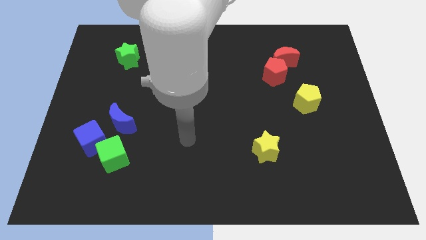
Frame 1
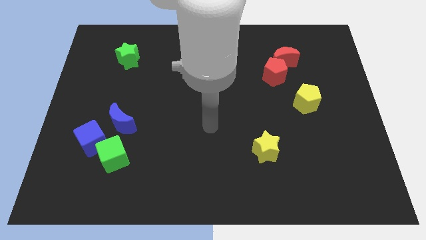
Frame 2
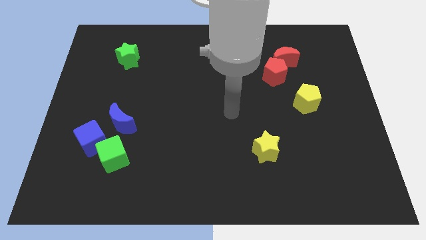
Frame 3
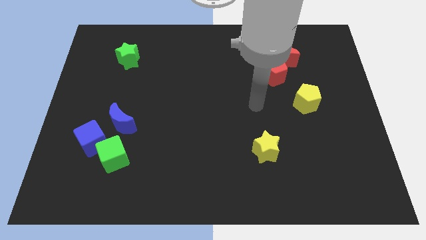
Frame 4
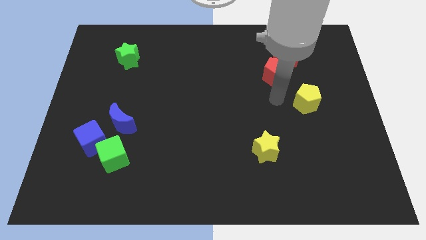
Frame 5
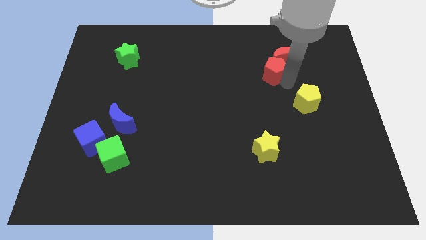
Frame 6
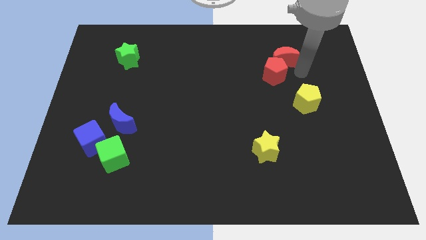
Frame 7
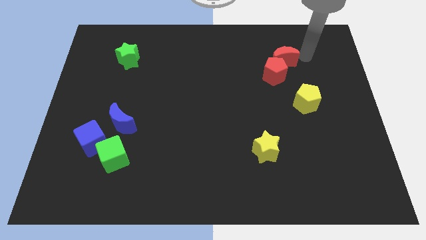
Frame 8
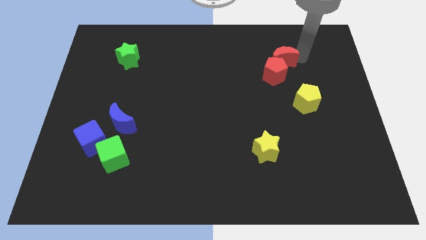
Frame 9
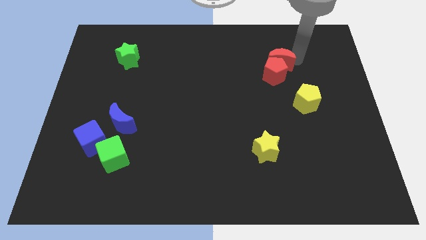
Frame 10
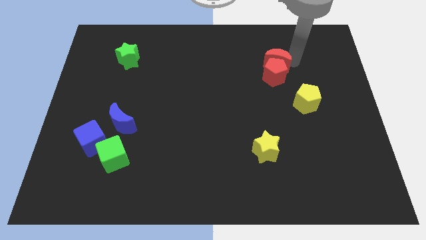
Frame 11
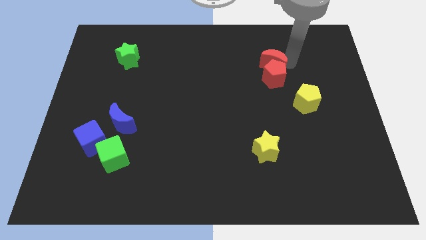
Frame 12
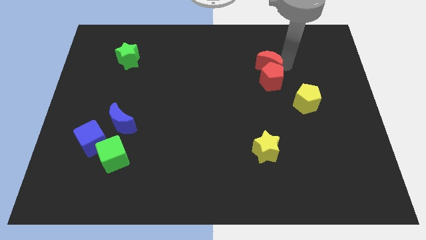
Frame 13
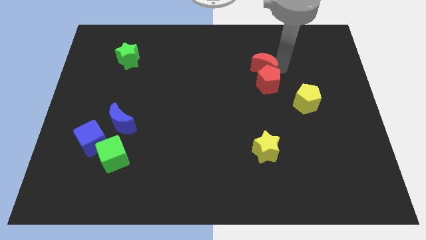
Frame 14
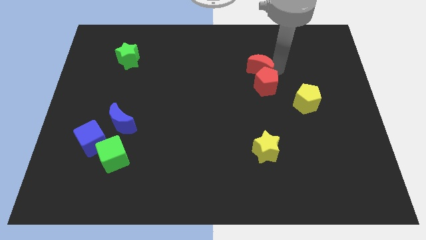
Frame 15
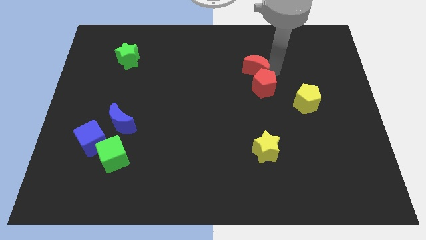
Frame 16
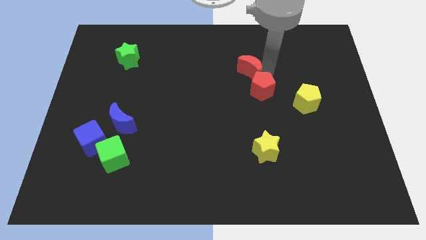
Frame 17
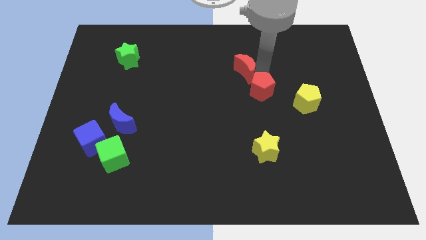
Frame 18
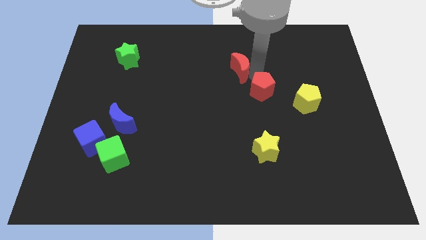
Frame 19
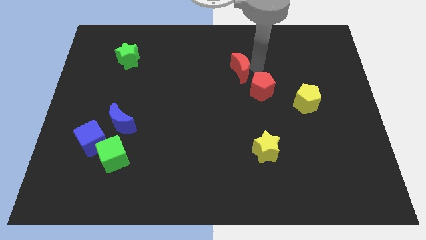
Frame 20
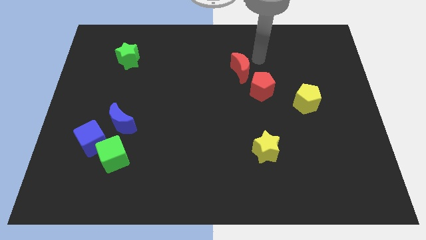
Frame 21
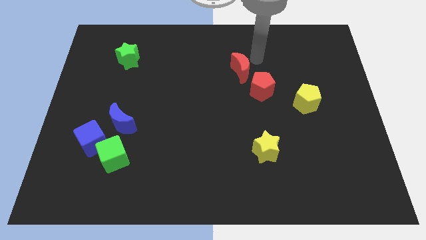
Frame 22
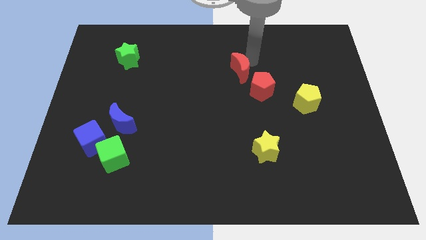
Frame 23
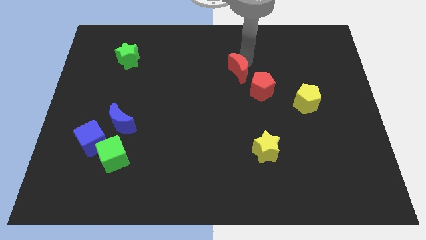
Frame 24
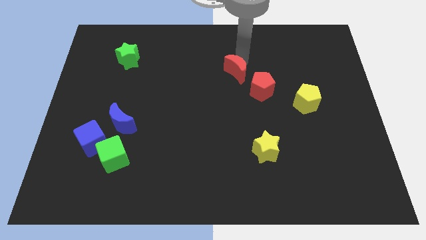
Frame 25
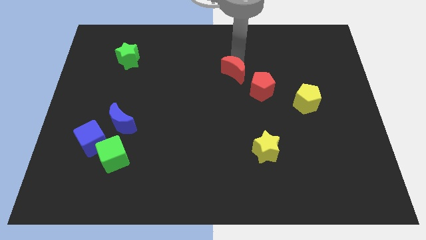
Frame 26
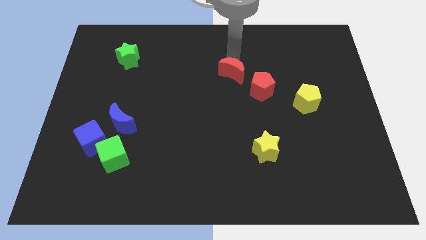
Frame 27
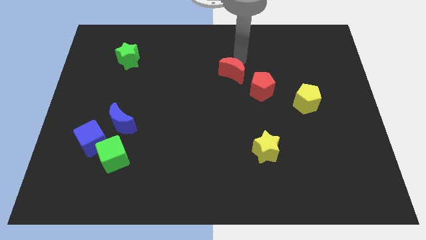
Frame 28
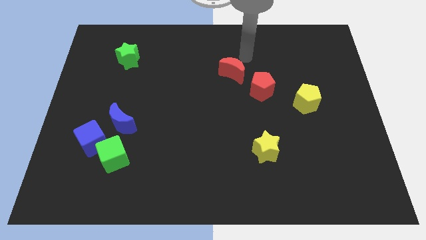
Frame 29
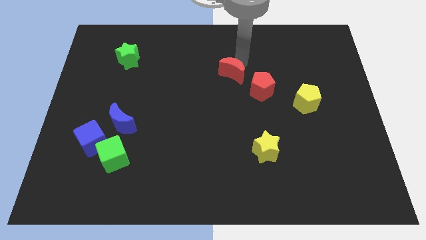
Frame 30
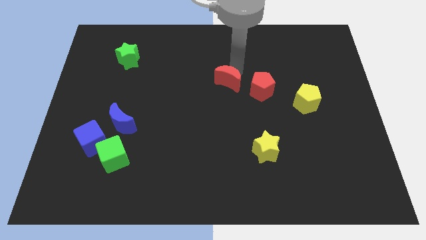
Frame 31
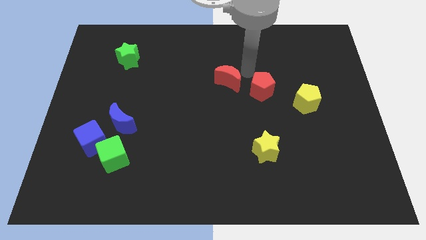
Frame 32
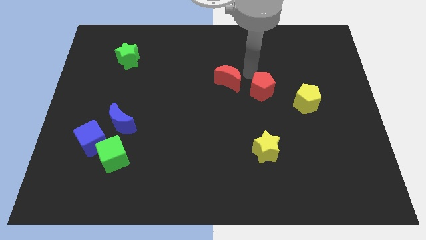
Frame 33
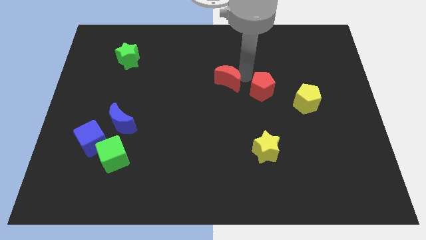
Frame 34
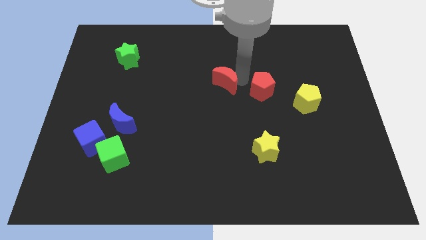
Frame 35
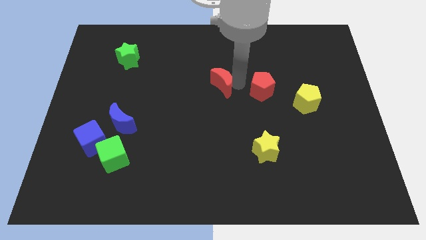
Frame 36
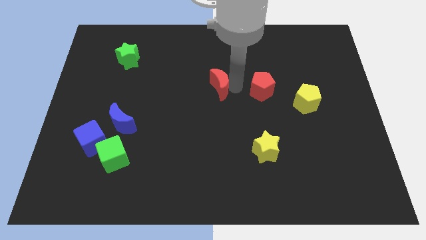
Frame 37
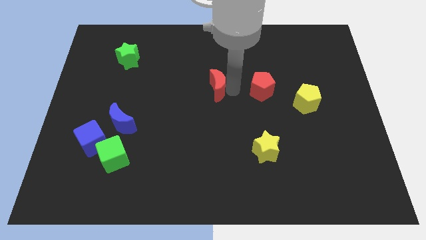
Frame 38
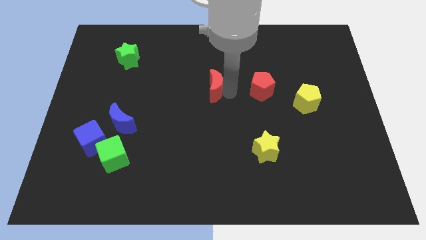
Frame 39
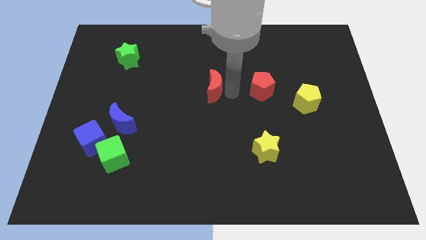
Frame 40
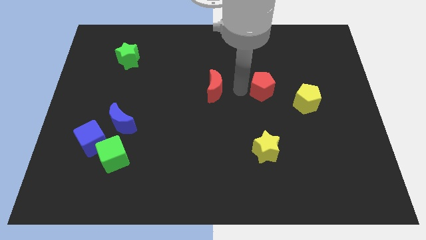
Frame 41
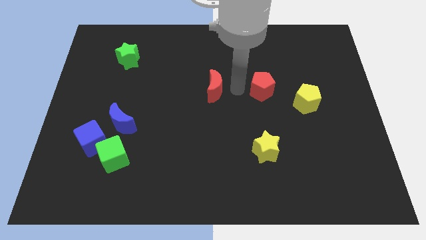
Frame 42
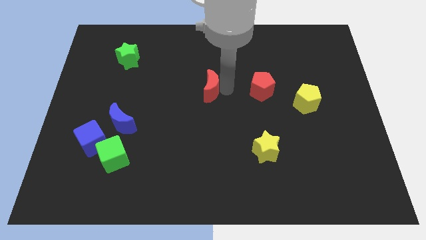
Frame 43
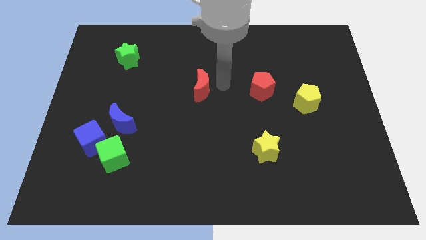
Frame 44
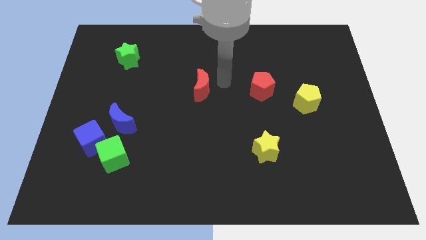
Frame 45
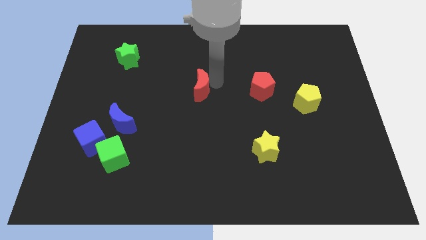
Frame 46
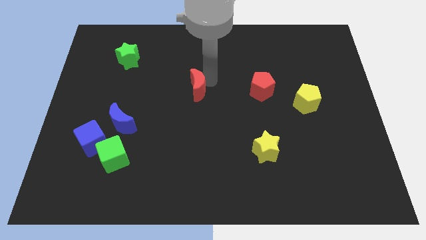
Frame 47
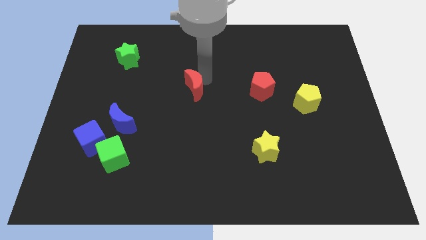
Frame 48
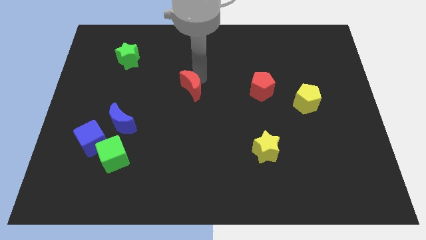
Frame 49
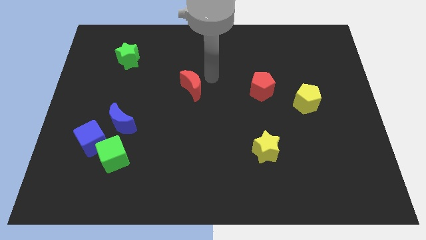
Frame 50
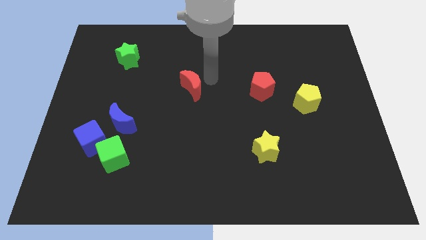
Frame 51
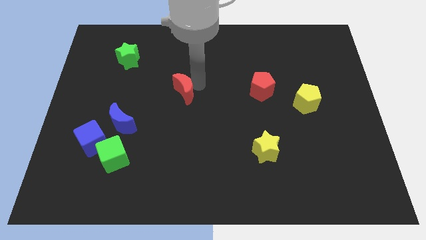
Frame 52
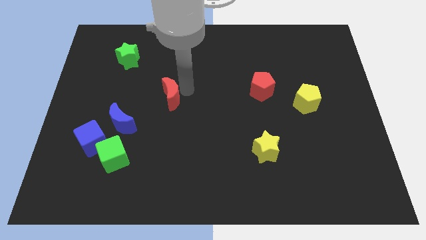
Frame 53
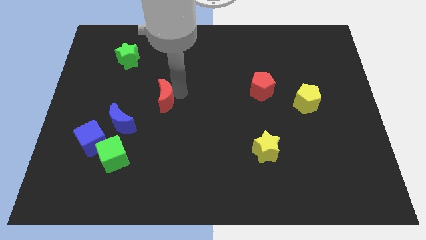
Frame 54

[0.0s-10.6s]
put the red moon to the top right side of the blue moon

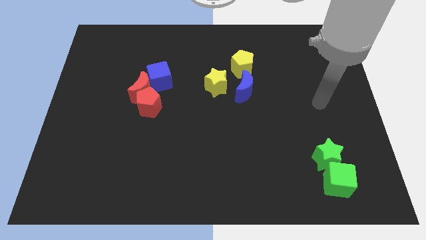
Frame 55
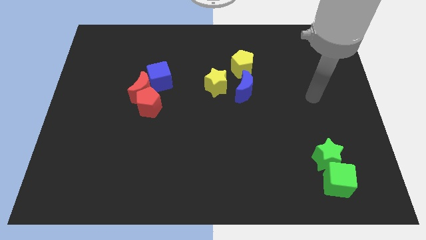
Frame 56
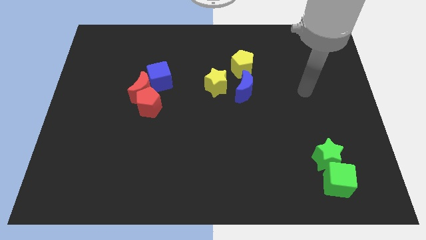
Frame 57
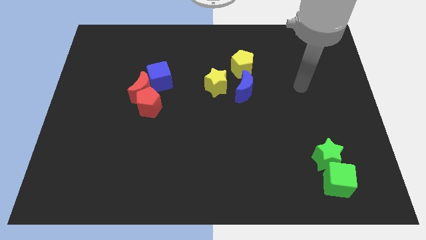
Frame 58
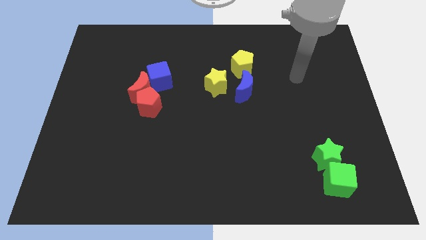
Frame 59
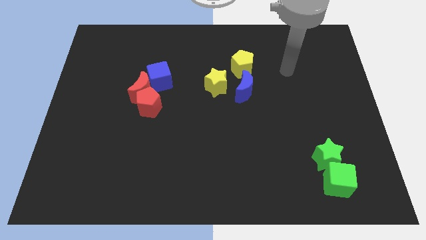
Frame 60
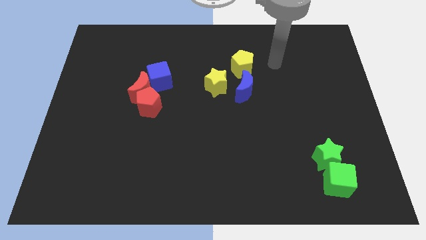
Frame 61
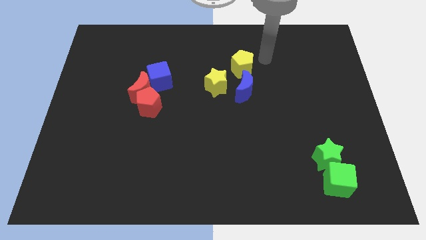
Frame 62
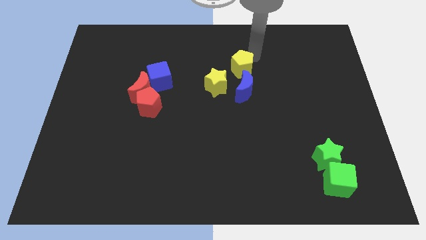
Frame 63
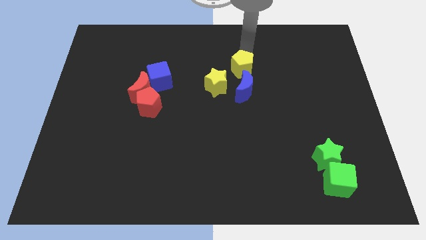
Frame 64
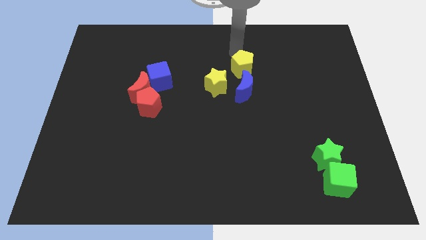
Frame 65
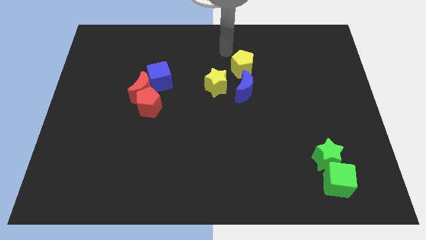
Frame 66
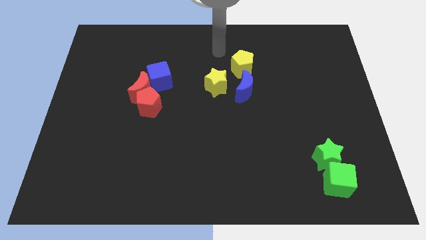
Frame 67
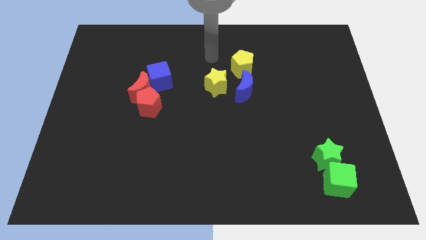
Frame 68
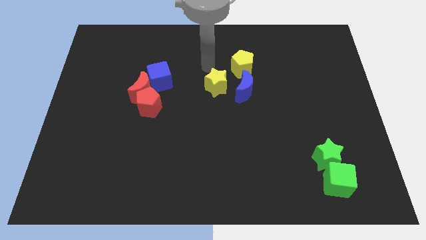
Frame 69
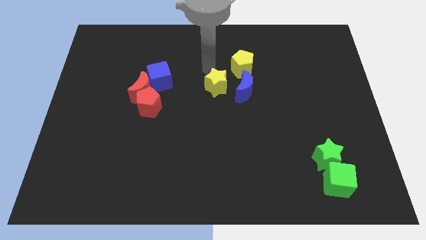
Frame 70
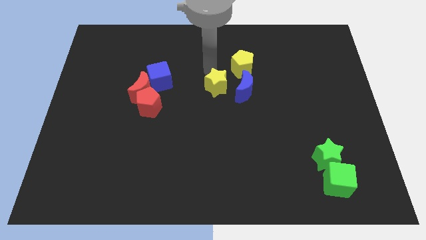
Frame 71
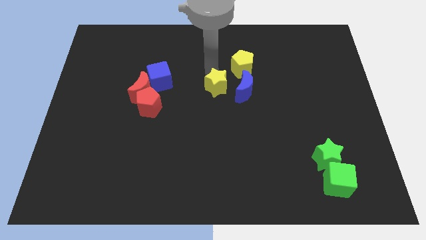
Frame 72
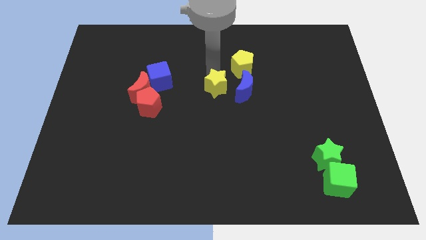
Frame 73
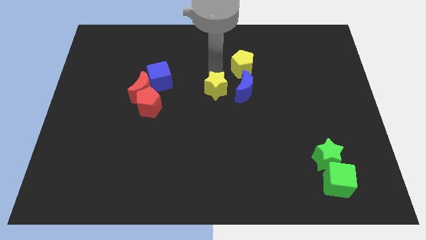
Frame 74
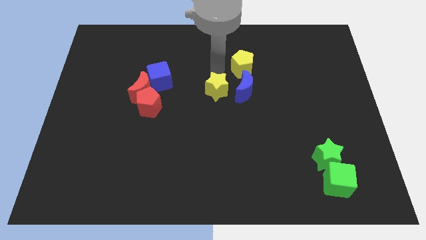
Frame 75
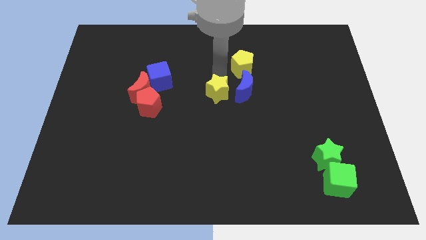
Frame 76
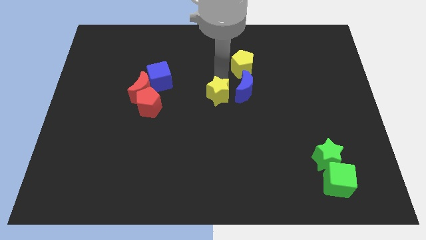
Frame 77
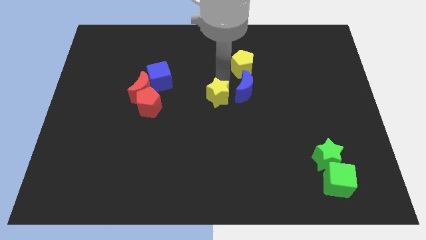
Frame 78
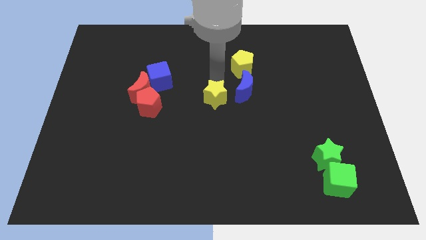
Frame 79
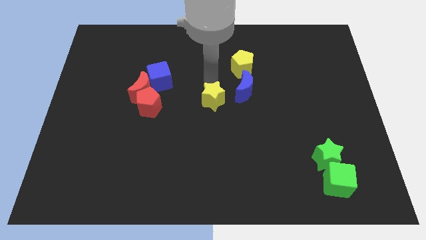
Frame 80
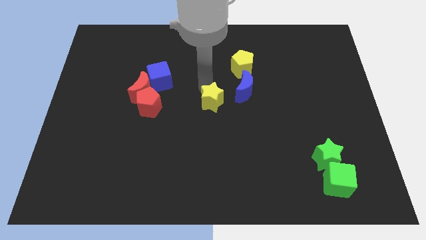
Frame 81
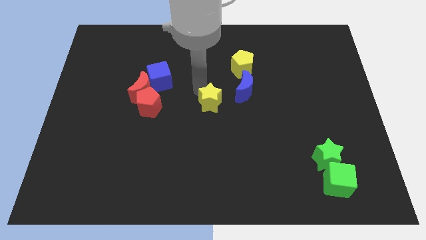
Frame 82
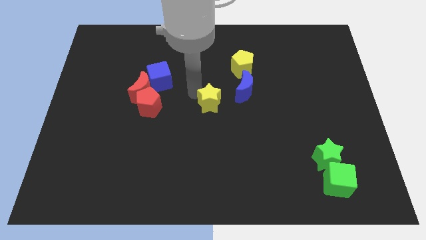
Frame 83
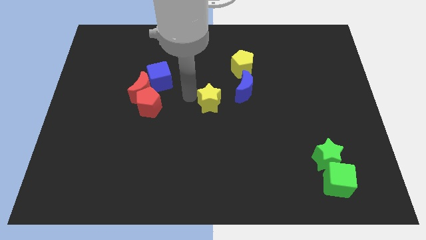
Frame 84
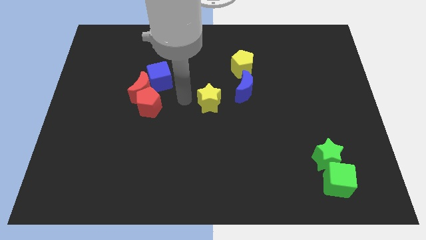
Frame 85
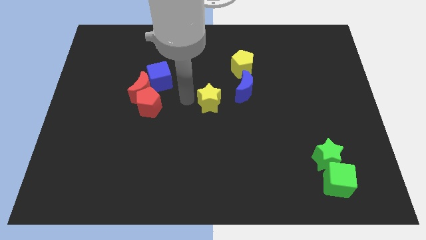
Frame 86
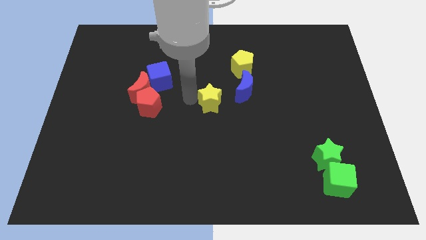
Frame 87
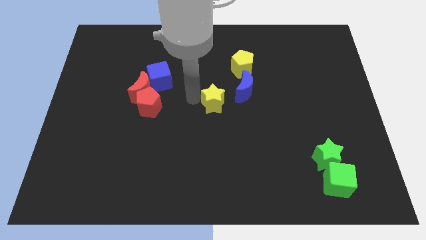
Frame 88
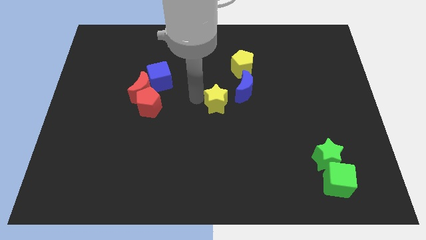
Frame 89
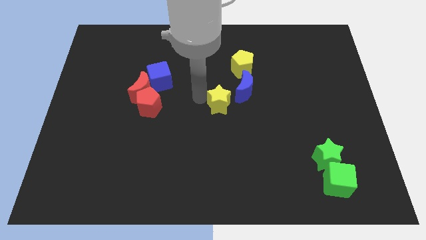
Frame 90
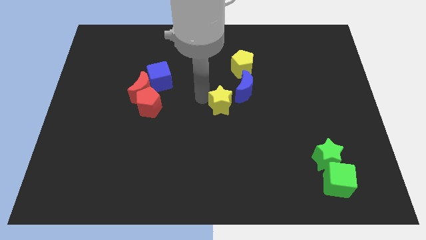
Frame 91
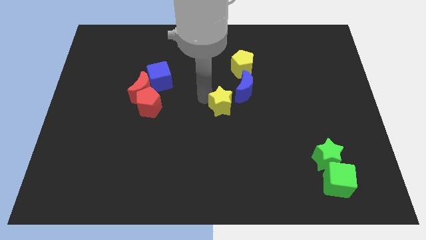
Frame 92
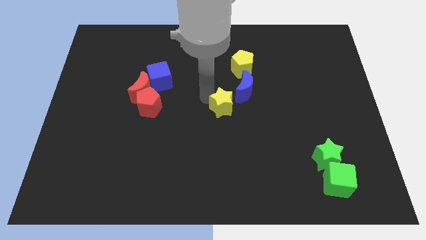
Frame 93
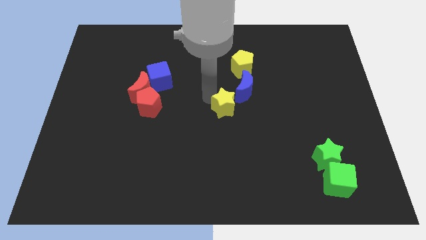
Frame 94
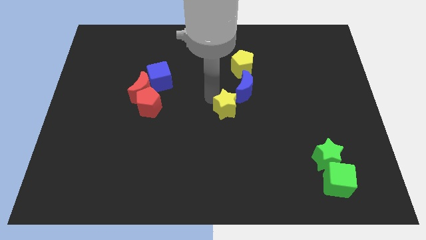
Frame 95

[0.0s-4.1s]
put the yellow star to the bottom side of the blue moon
